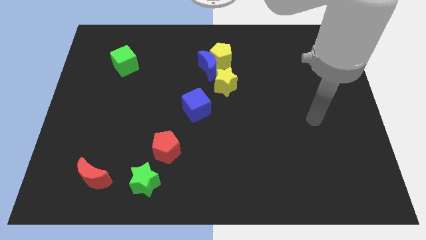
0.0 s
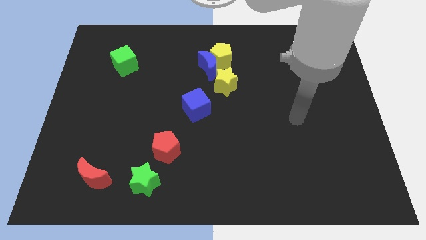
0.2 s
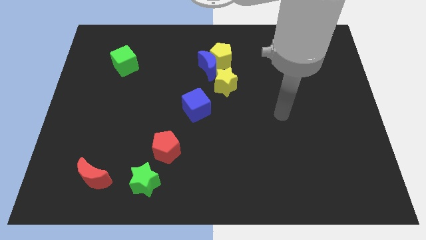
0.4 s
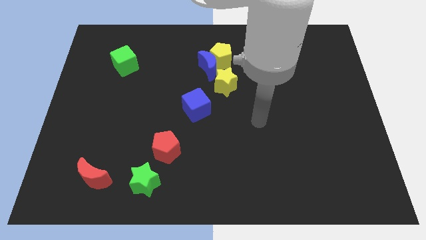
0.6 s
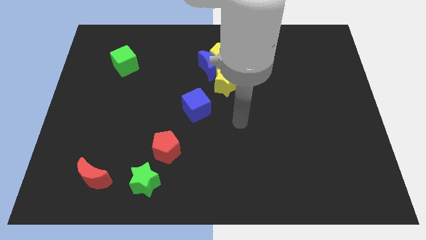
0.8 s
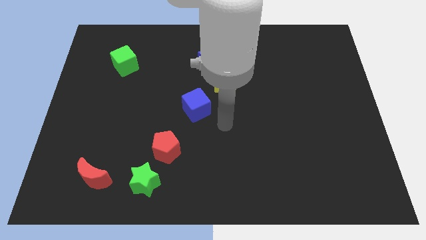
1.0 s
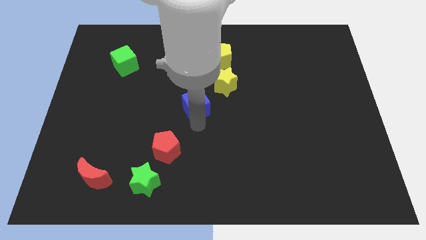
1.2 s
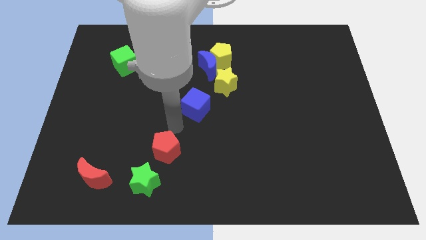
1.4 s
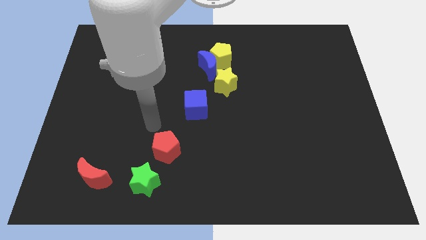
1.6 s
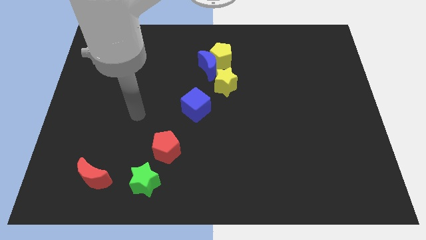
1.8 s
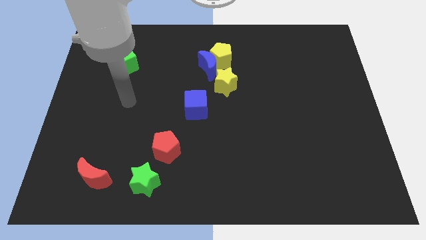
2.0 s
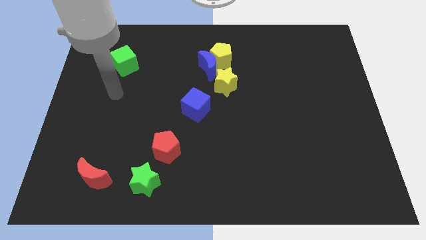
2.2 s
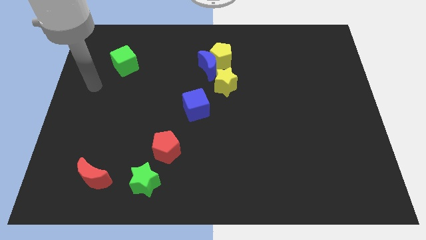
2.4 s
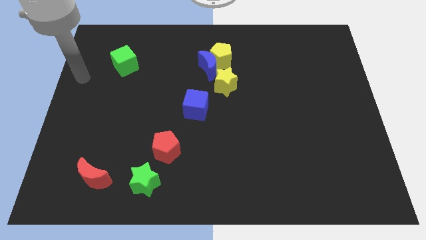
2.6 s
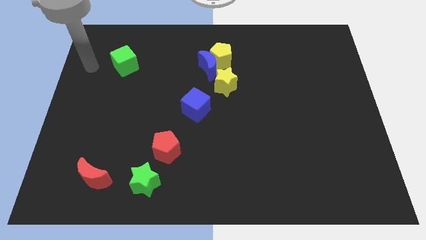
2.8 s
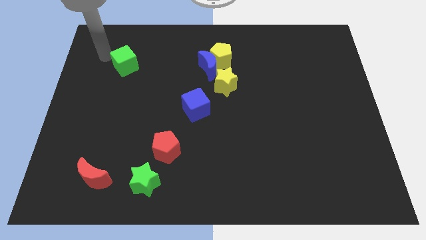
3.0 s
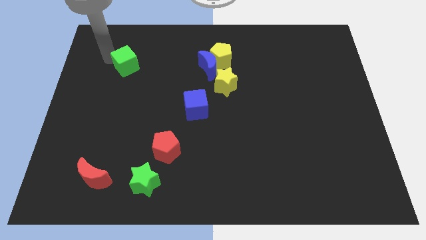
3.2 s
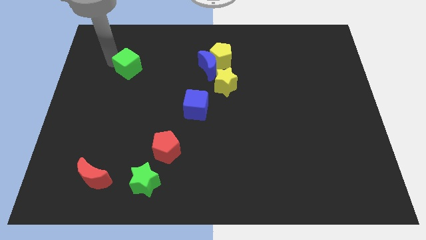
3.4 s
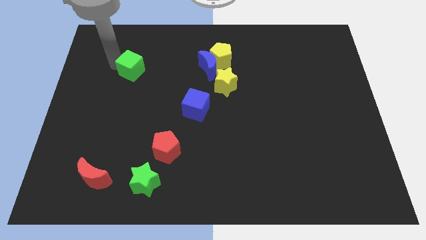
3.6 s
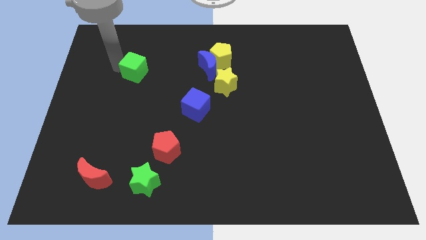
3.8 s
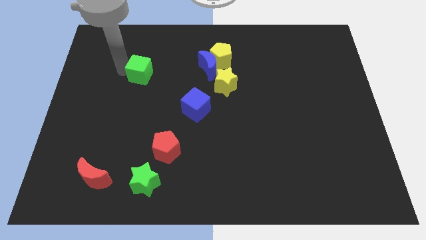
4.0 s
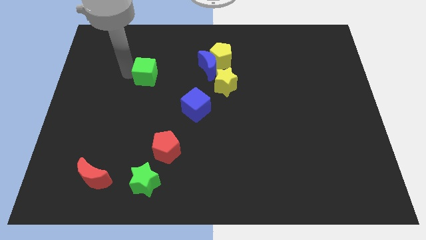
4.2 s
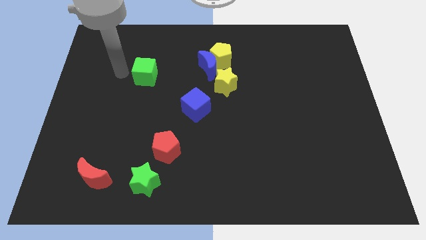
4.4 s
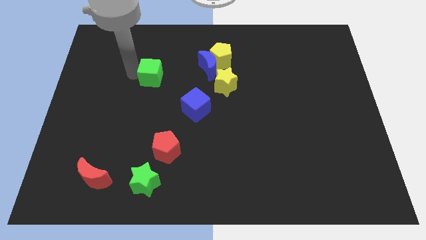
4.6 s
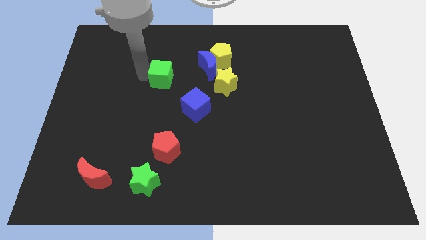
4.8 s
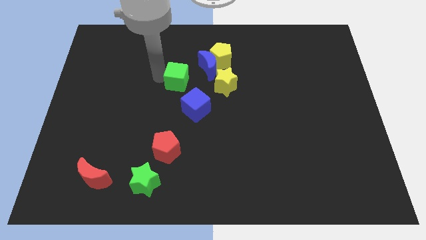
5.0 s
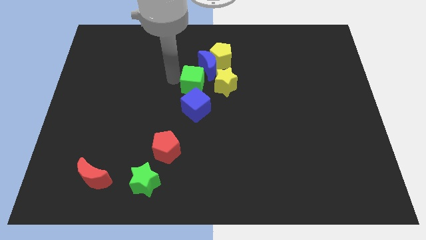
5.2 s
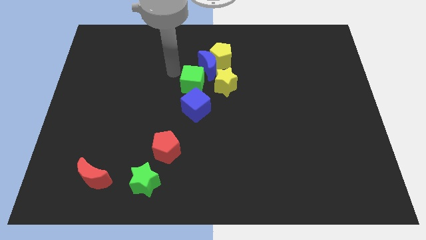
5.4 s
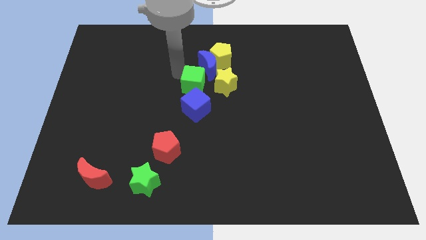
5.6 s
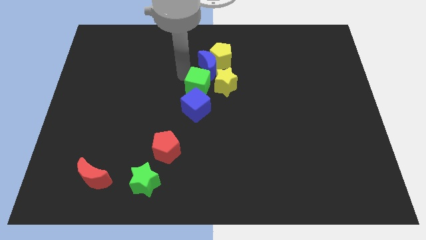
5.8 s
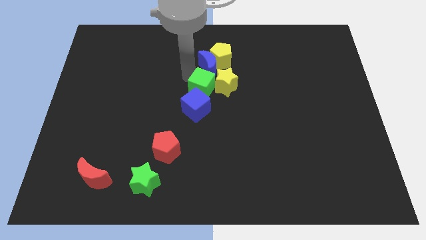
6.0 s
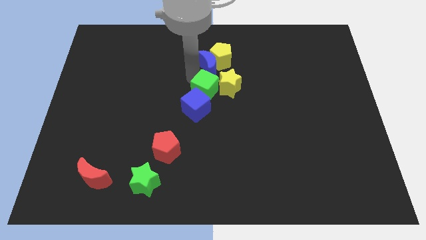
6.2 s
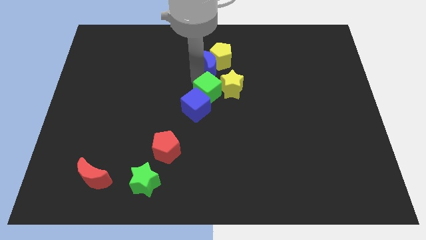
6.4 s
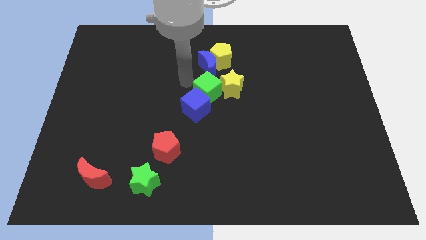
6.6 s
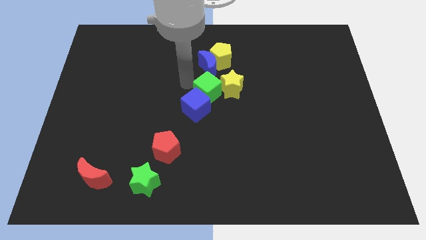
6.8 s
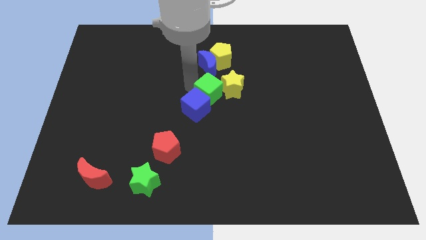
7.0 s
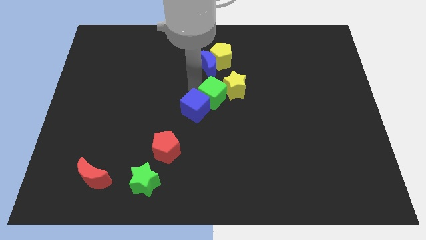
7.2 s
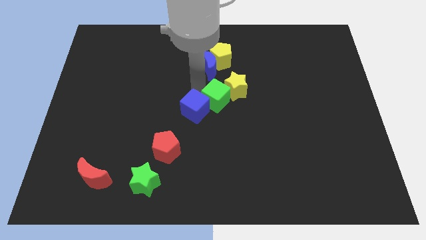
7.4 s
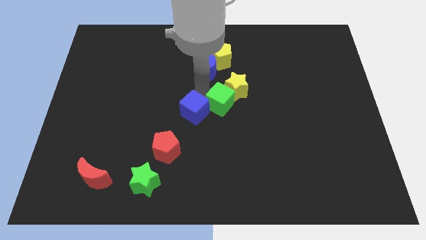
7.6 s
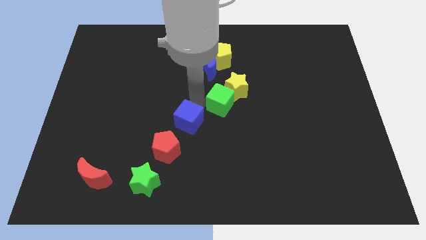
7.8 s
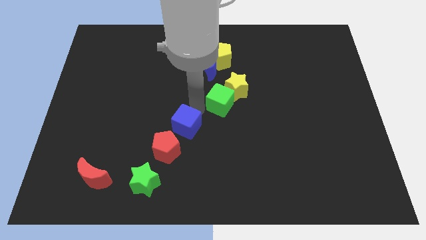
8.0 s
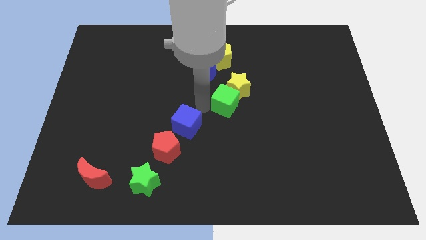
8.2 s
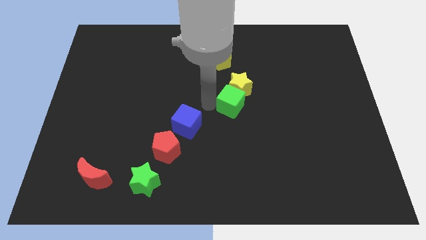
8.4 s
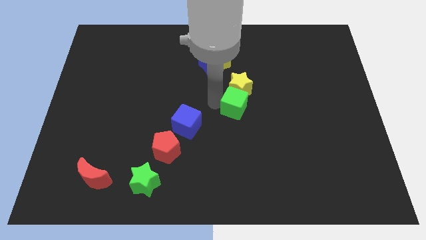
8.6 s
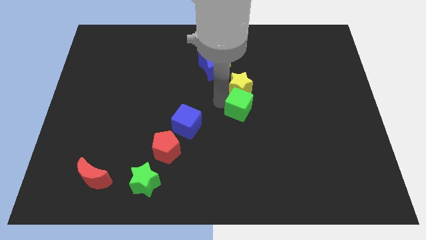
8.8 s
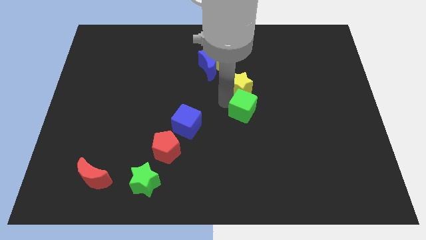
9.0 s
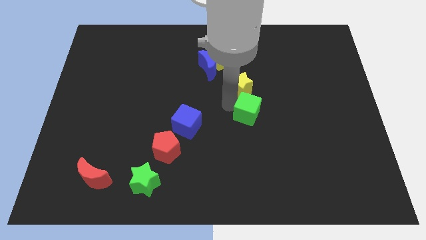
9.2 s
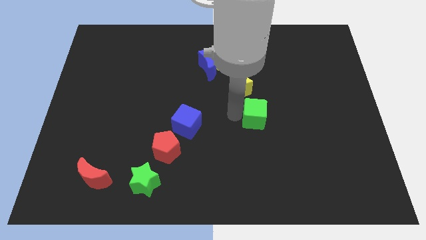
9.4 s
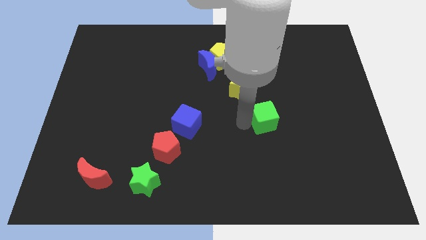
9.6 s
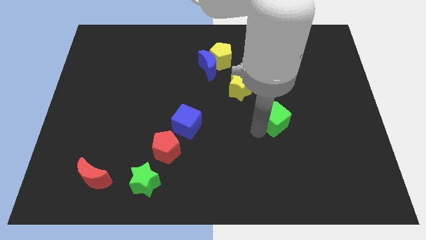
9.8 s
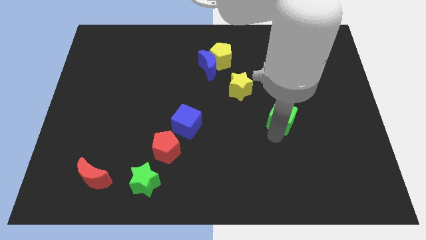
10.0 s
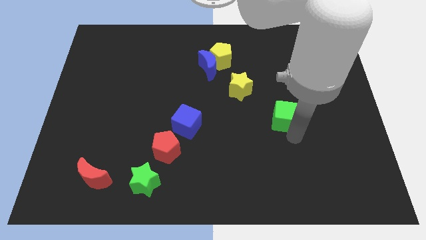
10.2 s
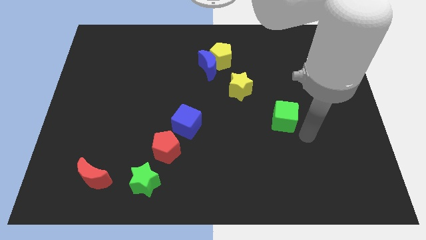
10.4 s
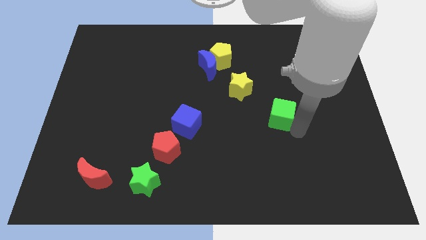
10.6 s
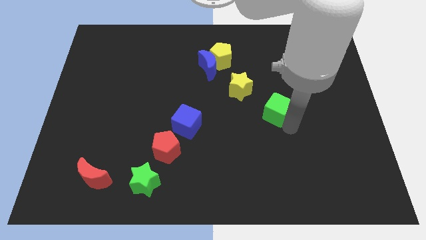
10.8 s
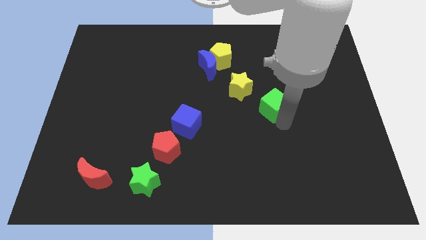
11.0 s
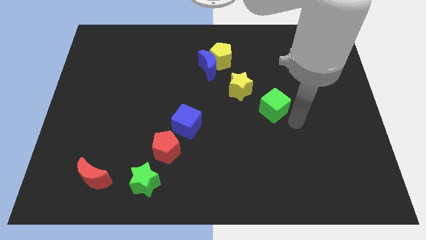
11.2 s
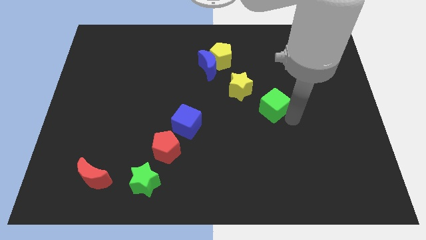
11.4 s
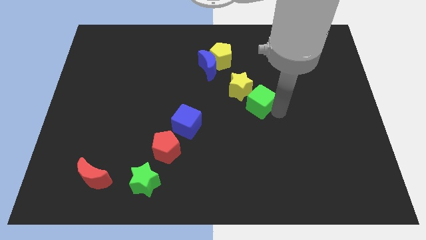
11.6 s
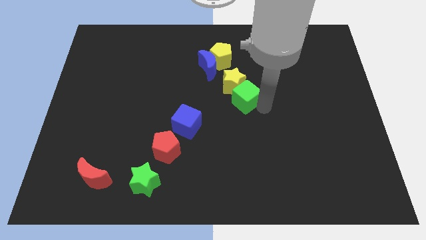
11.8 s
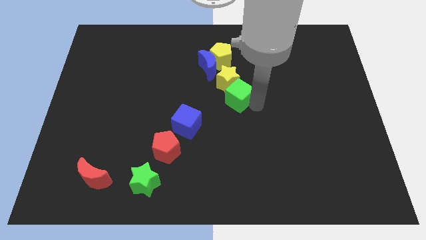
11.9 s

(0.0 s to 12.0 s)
move the green cube diagonally down and to the right of the blue moon

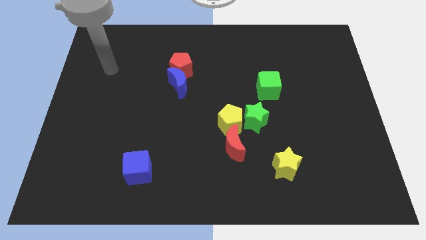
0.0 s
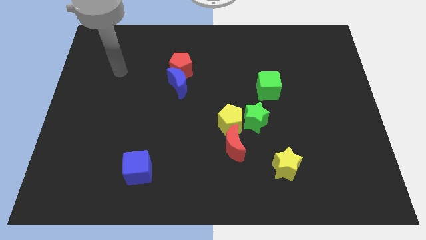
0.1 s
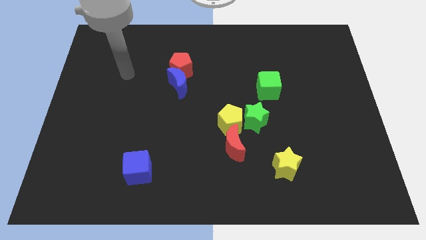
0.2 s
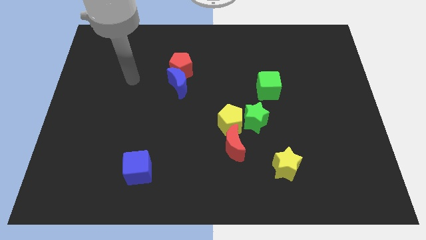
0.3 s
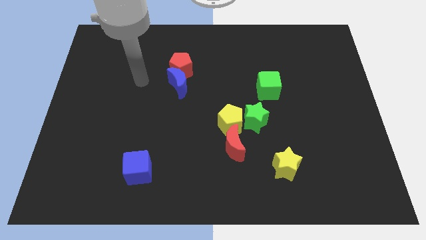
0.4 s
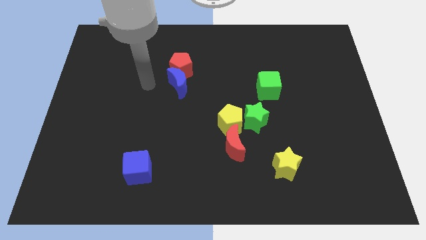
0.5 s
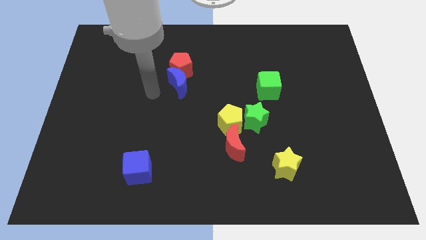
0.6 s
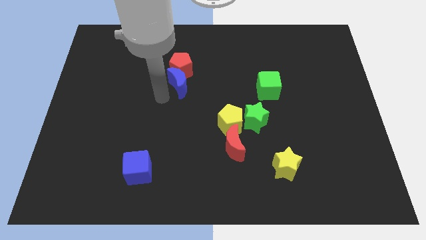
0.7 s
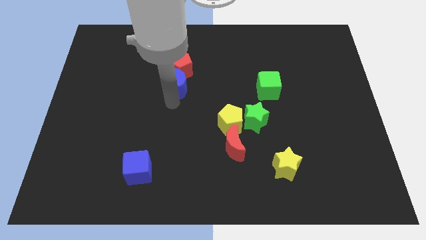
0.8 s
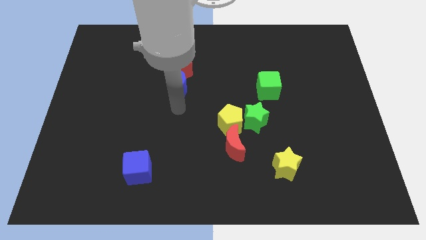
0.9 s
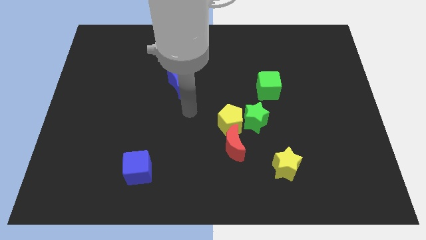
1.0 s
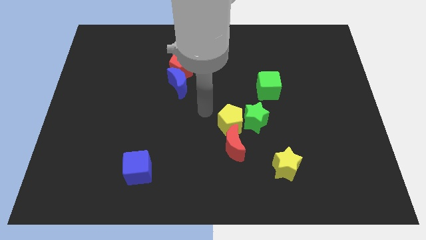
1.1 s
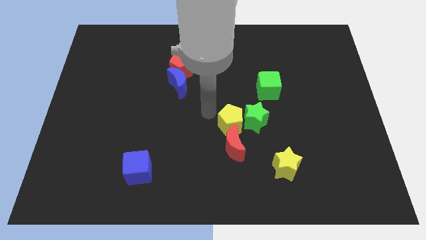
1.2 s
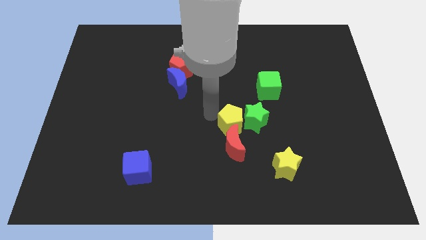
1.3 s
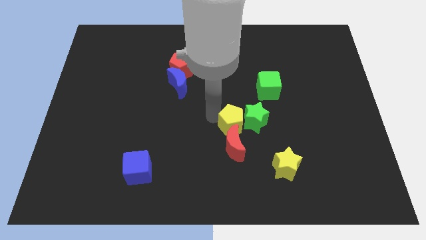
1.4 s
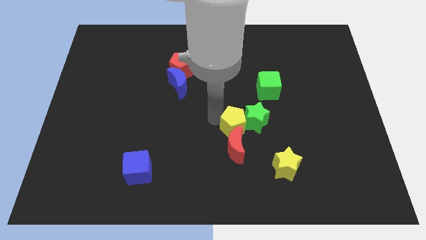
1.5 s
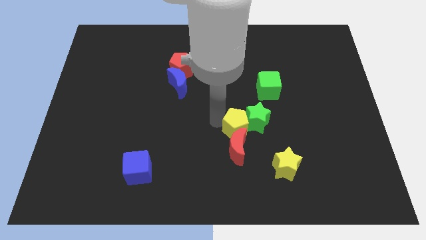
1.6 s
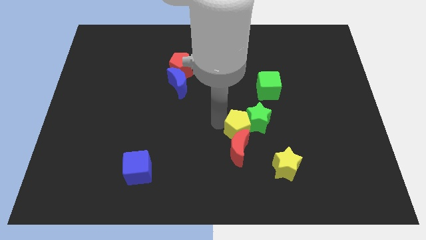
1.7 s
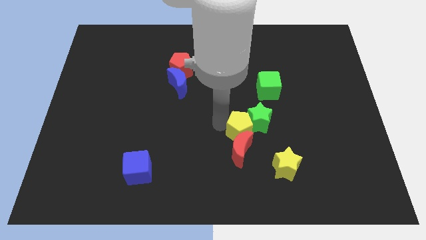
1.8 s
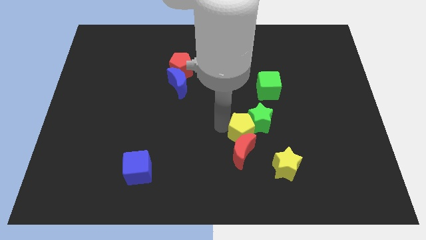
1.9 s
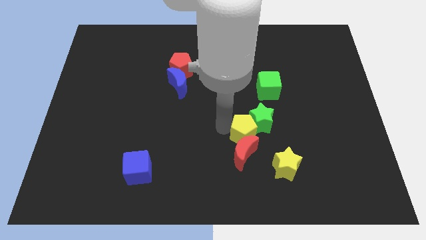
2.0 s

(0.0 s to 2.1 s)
move the yellow pentagon to the bottom side of the green star
